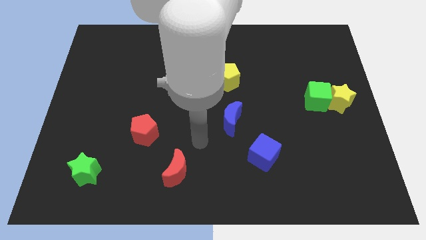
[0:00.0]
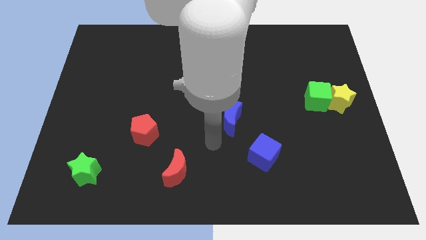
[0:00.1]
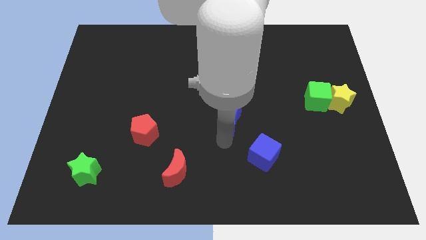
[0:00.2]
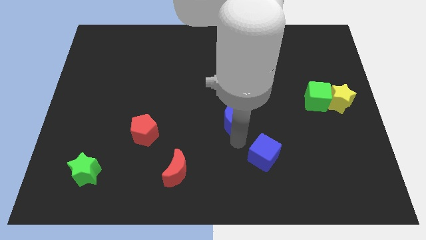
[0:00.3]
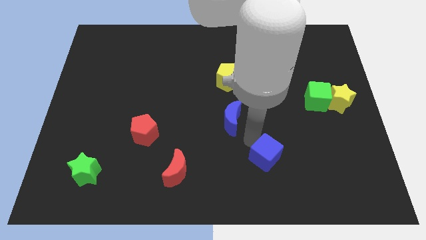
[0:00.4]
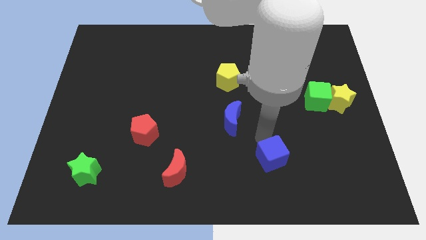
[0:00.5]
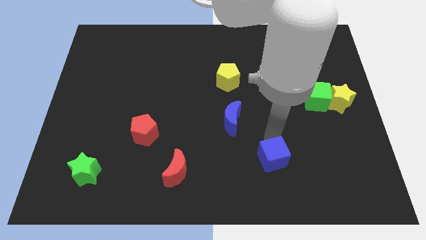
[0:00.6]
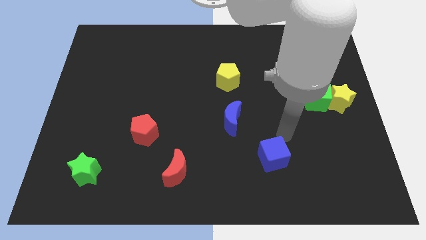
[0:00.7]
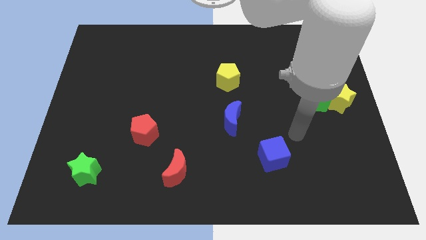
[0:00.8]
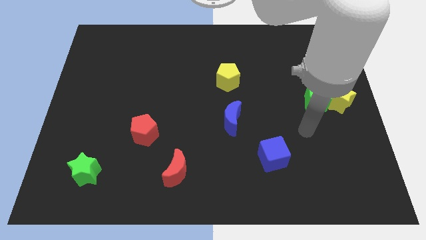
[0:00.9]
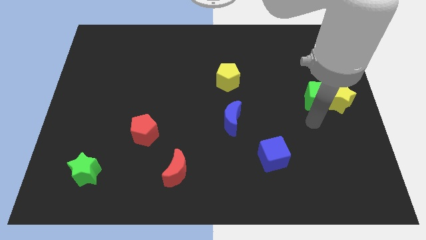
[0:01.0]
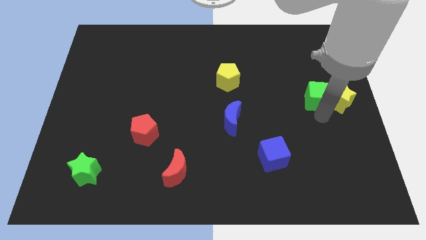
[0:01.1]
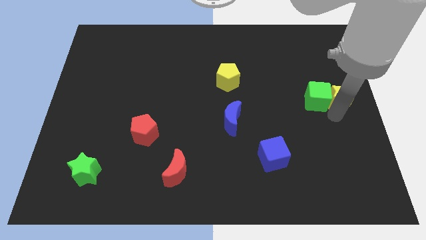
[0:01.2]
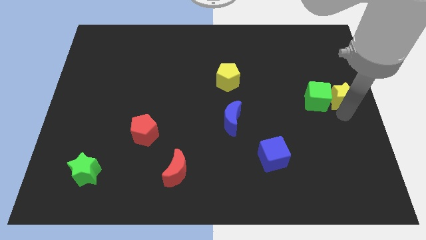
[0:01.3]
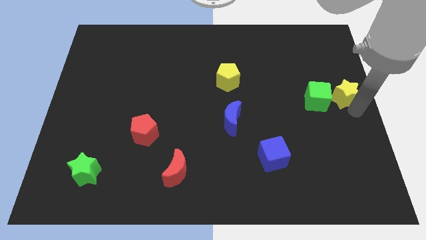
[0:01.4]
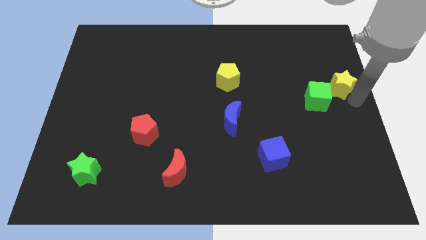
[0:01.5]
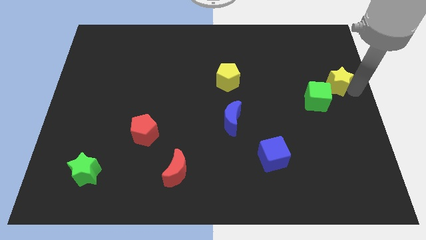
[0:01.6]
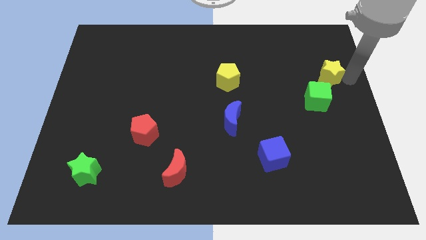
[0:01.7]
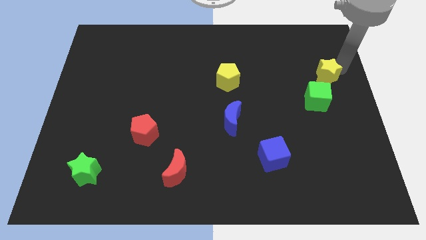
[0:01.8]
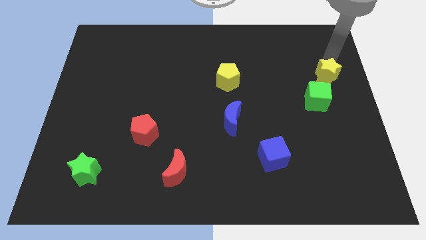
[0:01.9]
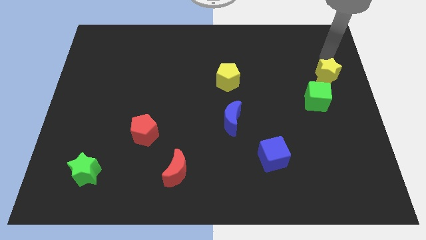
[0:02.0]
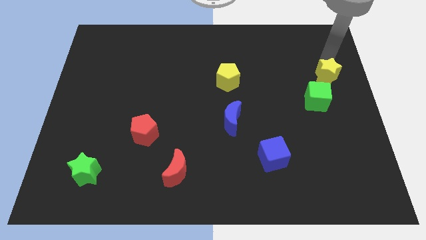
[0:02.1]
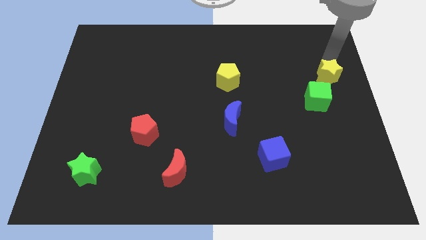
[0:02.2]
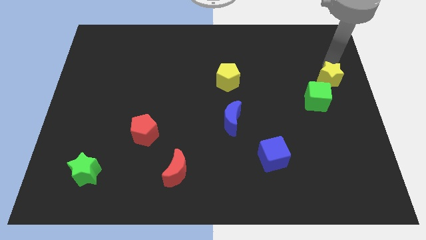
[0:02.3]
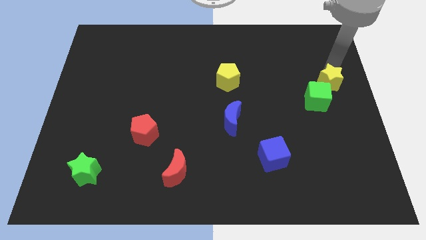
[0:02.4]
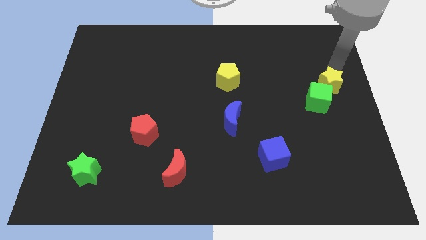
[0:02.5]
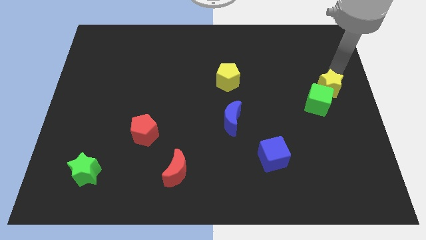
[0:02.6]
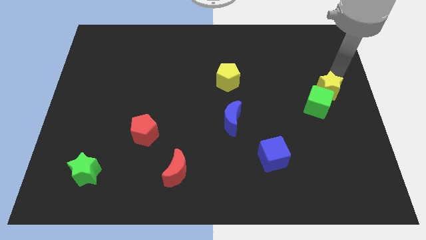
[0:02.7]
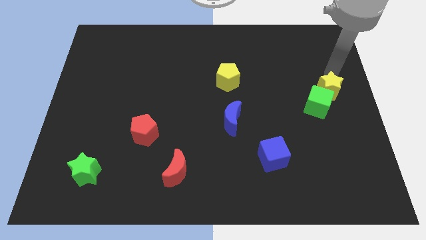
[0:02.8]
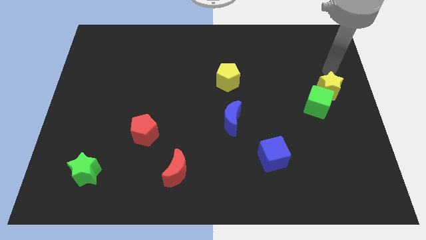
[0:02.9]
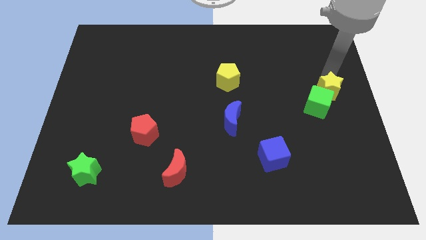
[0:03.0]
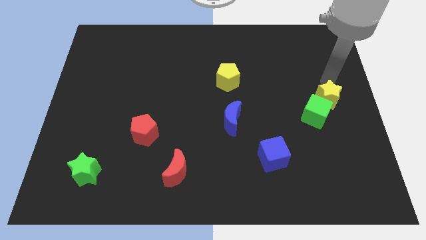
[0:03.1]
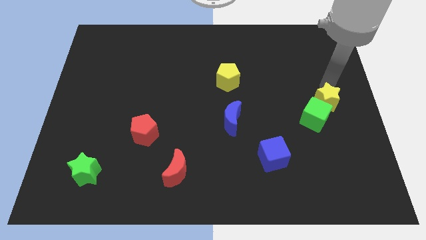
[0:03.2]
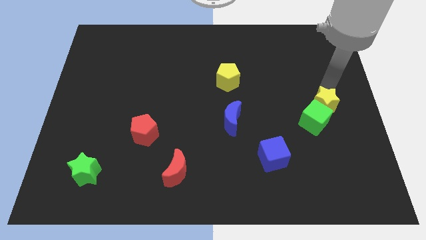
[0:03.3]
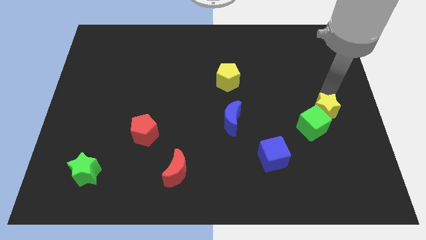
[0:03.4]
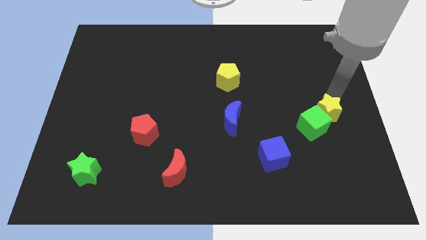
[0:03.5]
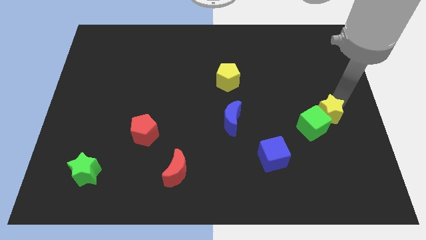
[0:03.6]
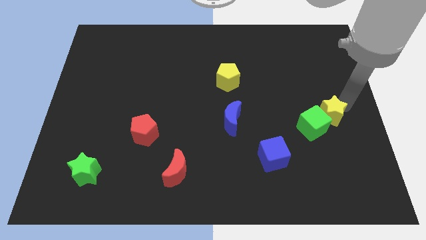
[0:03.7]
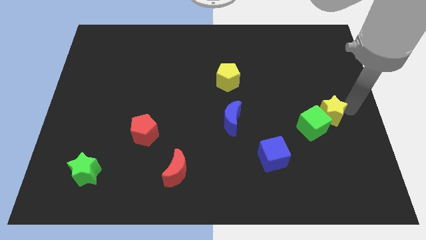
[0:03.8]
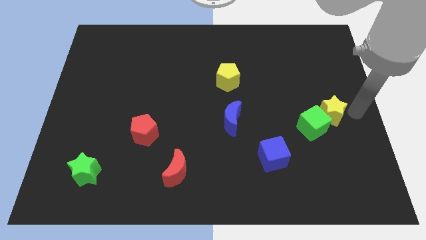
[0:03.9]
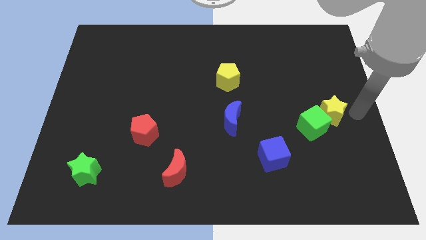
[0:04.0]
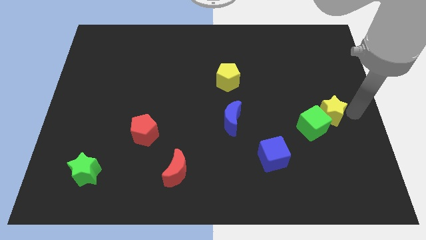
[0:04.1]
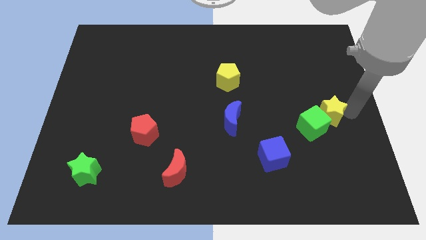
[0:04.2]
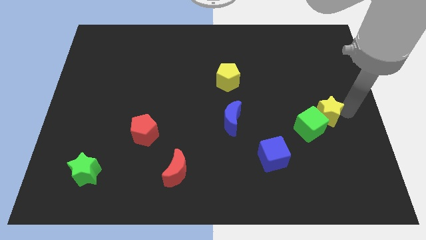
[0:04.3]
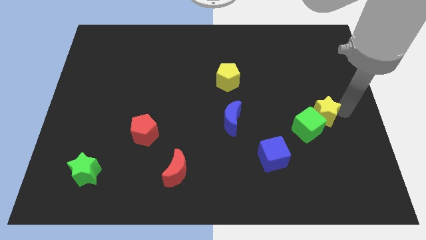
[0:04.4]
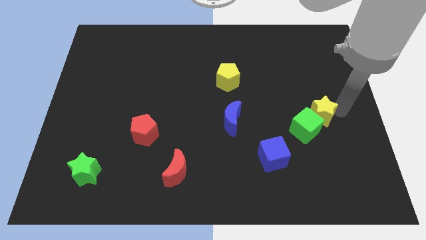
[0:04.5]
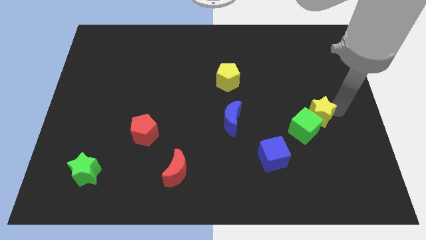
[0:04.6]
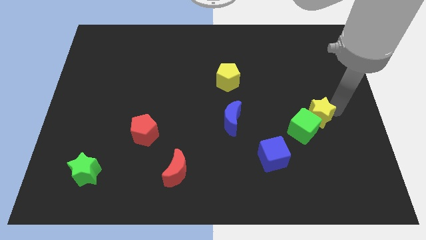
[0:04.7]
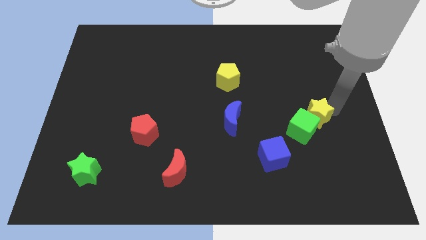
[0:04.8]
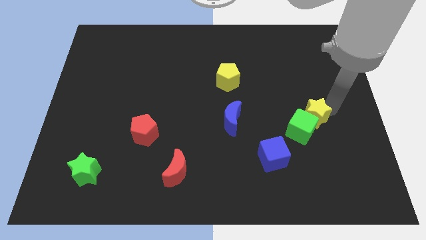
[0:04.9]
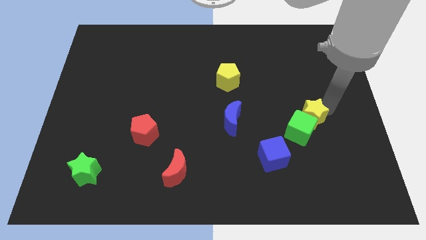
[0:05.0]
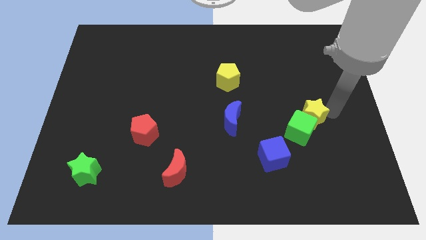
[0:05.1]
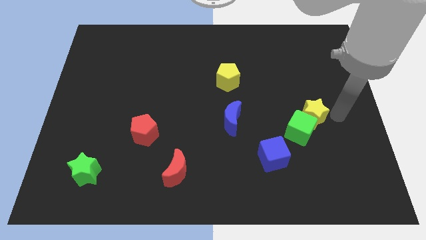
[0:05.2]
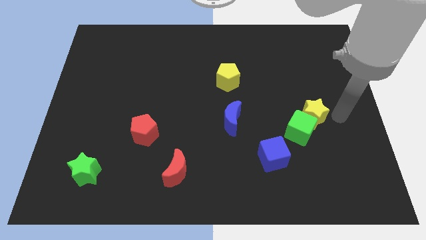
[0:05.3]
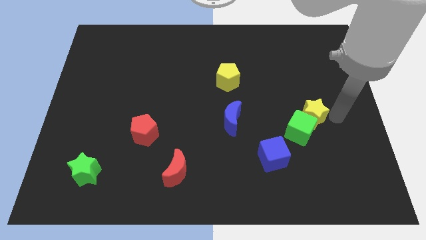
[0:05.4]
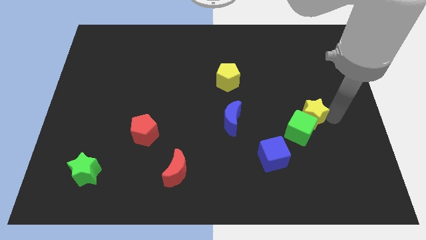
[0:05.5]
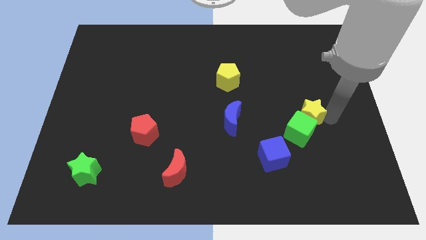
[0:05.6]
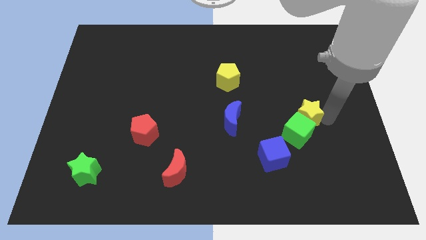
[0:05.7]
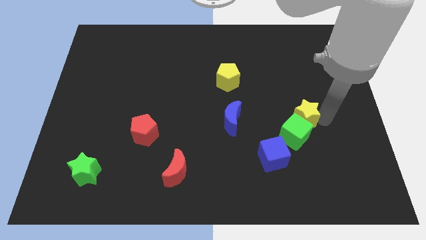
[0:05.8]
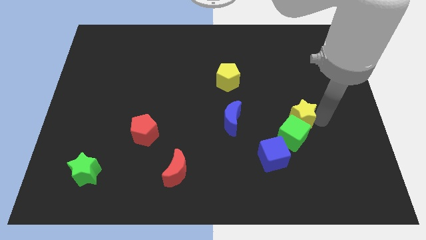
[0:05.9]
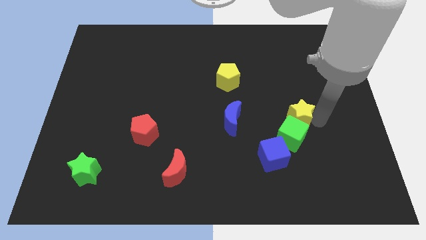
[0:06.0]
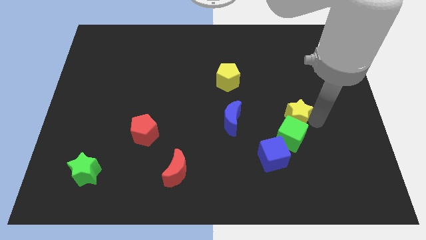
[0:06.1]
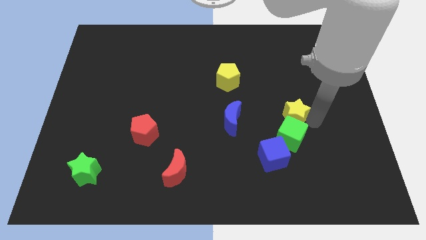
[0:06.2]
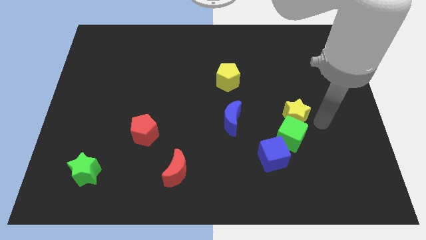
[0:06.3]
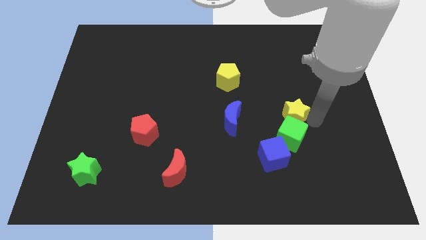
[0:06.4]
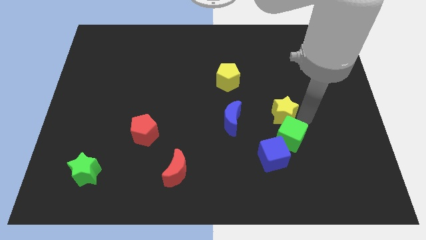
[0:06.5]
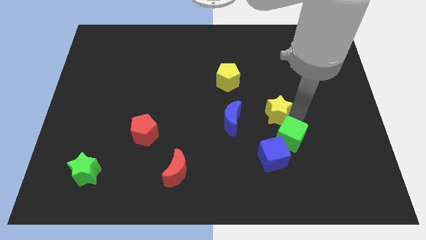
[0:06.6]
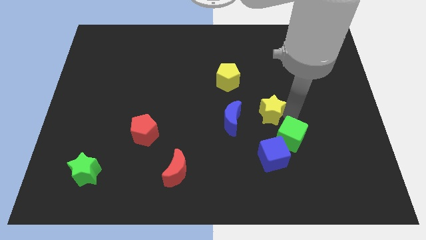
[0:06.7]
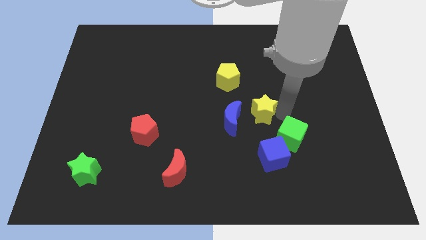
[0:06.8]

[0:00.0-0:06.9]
put the yellow star to the center
